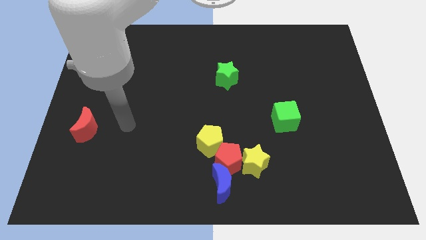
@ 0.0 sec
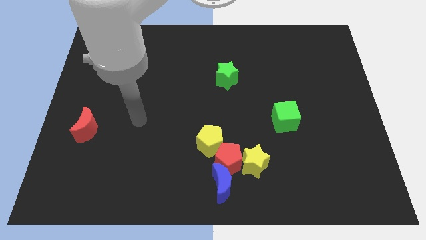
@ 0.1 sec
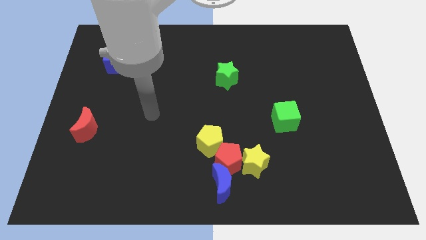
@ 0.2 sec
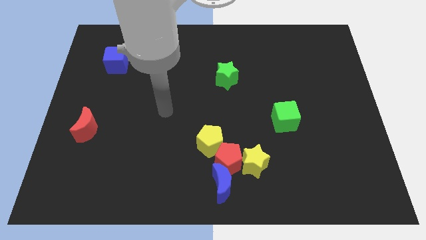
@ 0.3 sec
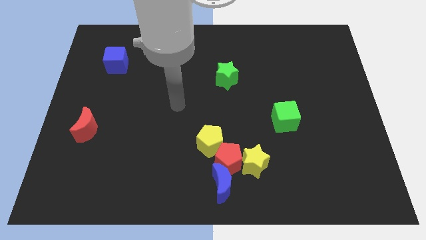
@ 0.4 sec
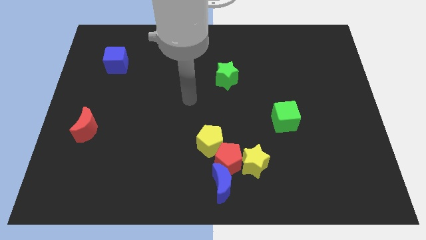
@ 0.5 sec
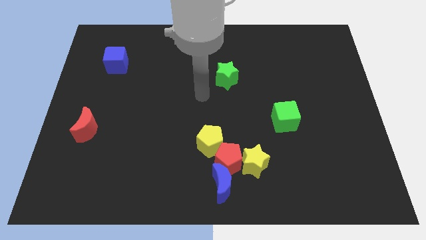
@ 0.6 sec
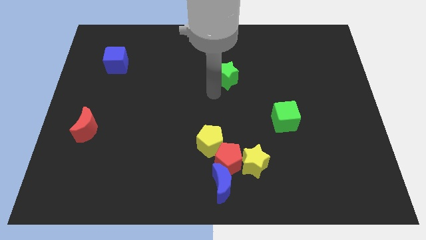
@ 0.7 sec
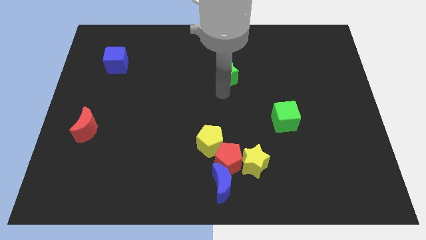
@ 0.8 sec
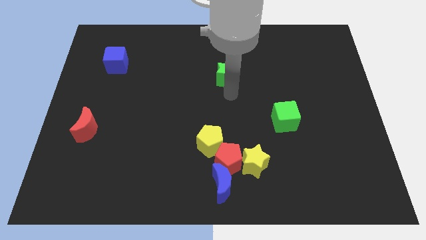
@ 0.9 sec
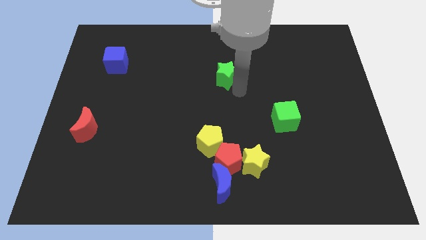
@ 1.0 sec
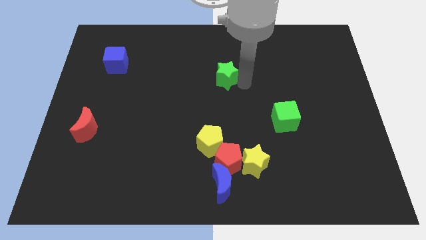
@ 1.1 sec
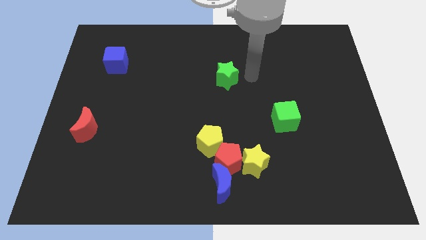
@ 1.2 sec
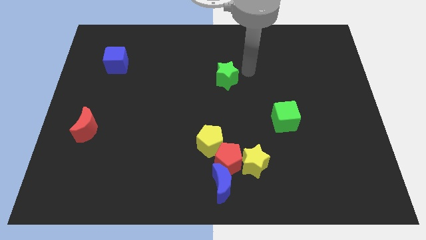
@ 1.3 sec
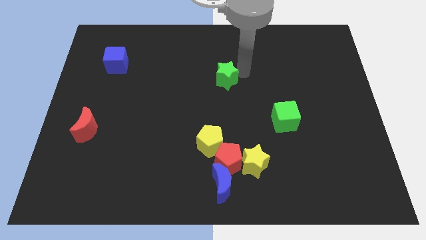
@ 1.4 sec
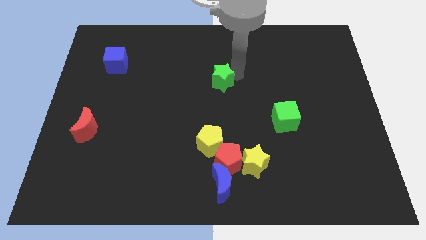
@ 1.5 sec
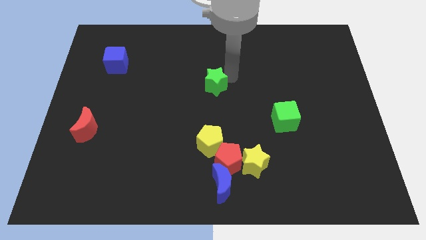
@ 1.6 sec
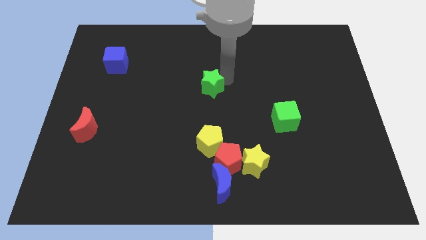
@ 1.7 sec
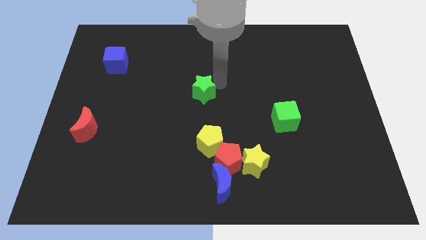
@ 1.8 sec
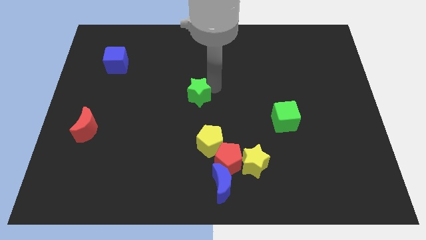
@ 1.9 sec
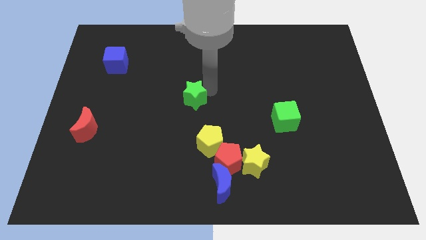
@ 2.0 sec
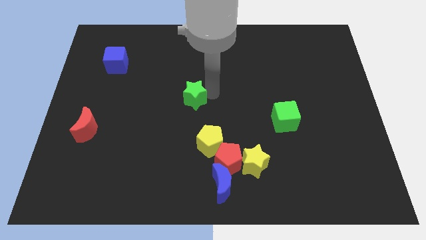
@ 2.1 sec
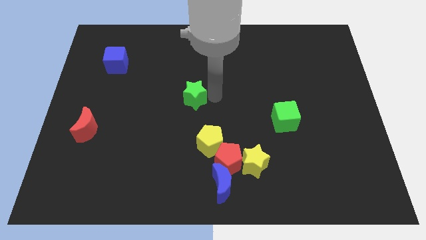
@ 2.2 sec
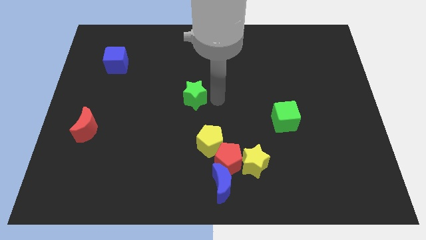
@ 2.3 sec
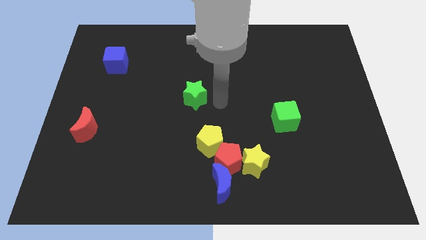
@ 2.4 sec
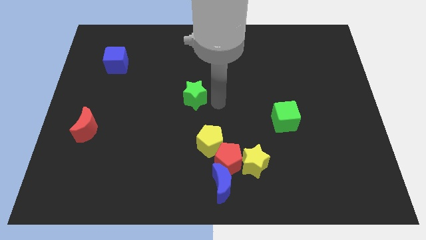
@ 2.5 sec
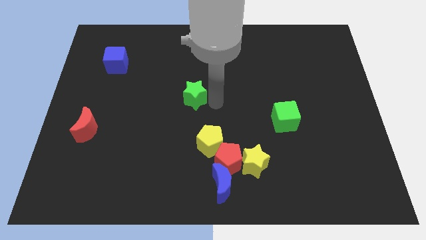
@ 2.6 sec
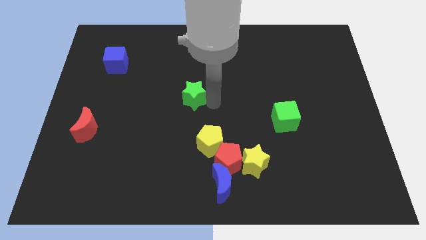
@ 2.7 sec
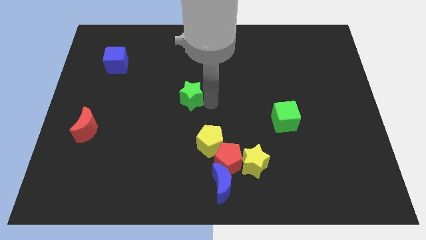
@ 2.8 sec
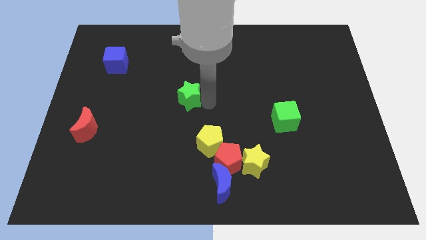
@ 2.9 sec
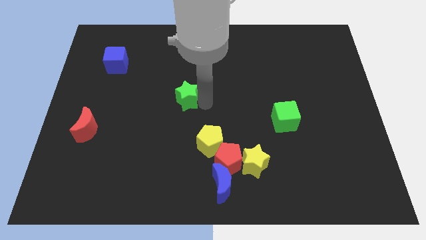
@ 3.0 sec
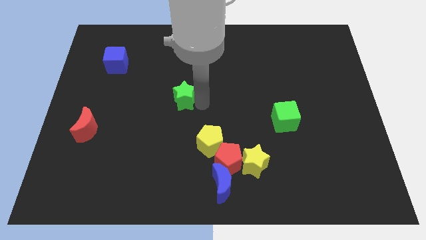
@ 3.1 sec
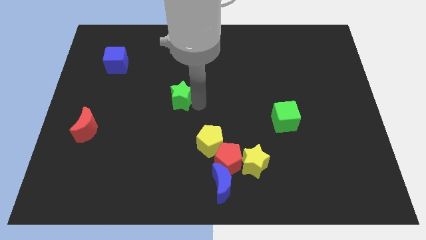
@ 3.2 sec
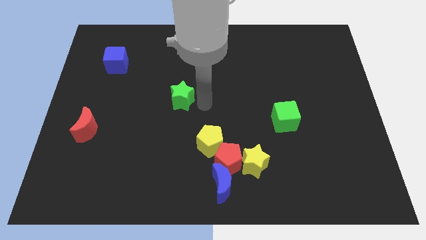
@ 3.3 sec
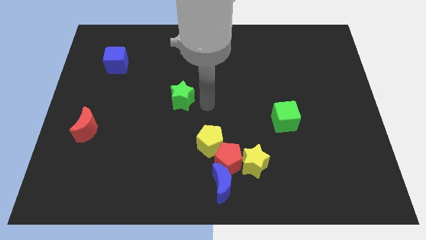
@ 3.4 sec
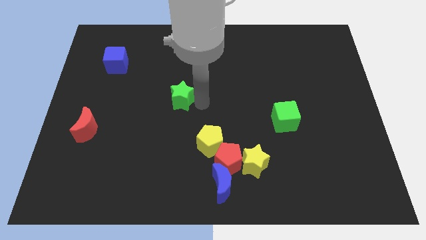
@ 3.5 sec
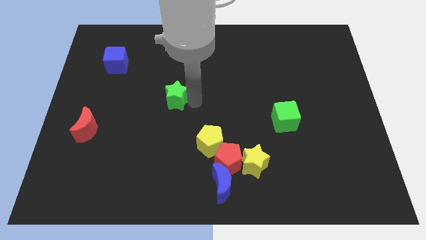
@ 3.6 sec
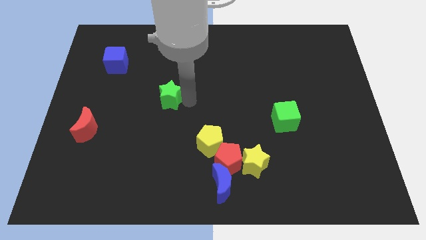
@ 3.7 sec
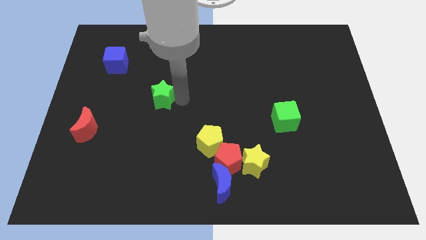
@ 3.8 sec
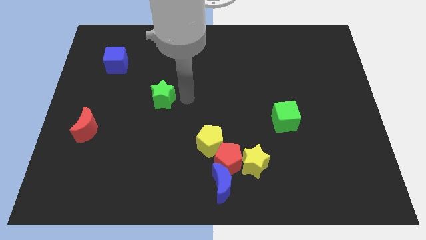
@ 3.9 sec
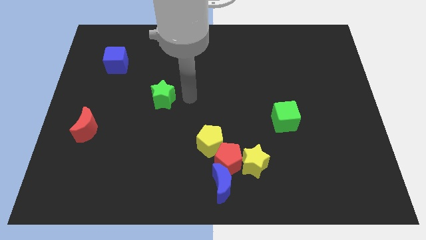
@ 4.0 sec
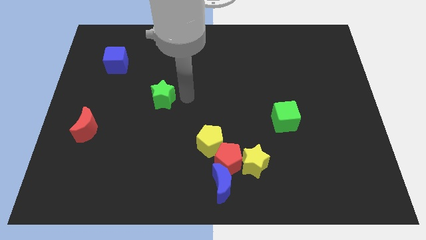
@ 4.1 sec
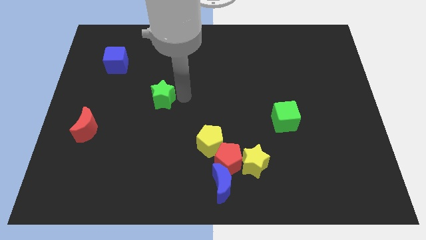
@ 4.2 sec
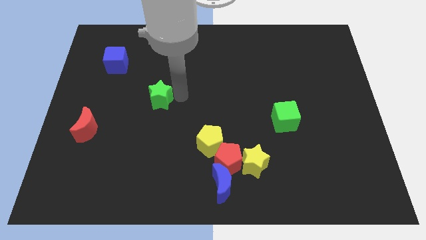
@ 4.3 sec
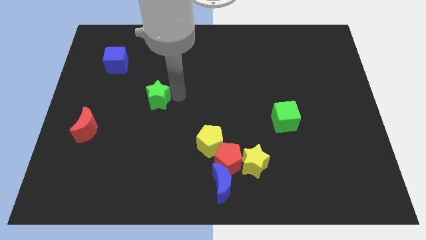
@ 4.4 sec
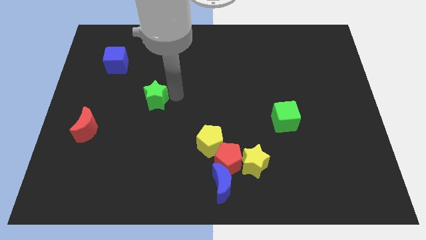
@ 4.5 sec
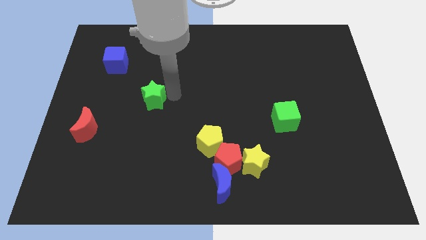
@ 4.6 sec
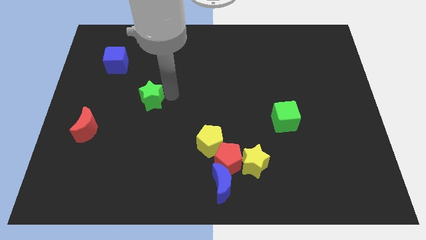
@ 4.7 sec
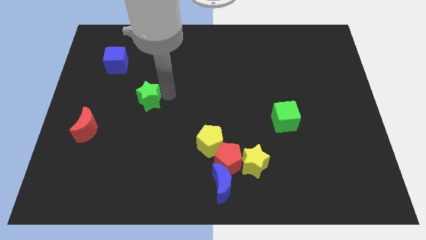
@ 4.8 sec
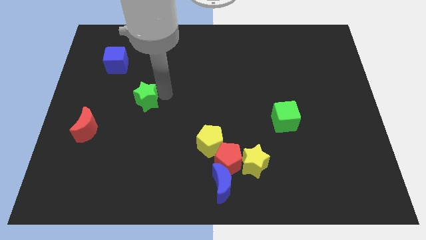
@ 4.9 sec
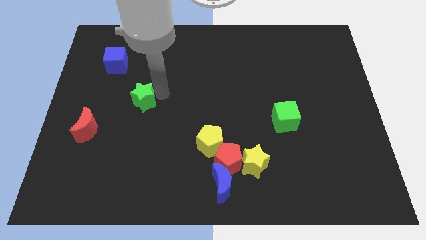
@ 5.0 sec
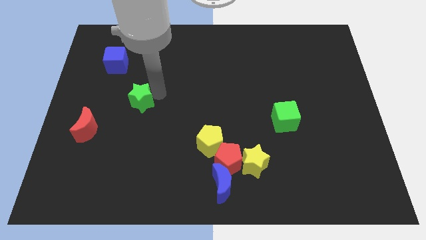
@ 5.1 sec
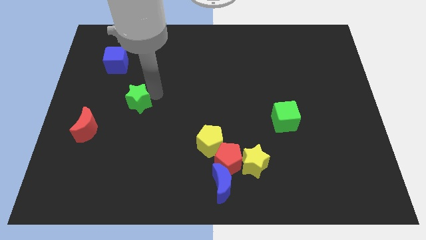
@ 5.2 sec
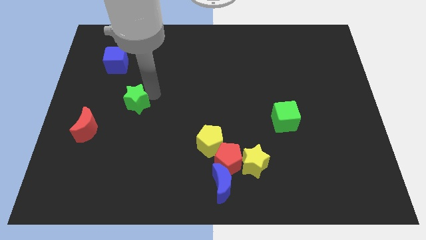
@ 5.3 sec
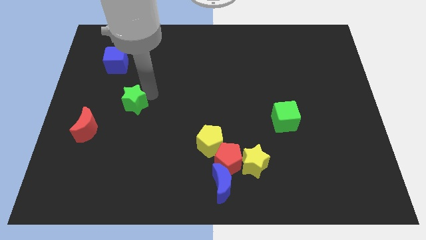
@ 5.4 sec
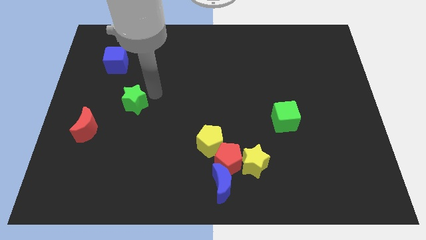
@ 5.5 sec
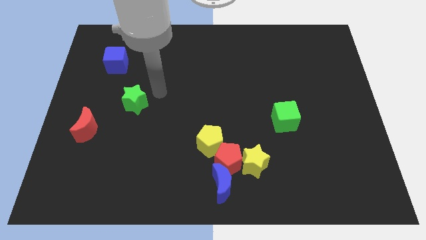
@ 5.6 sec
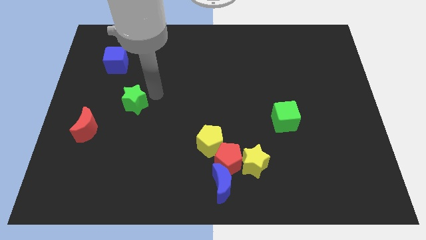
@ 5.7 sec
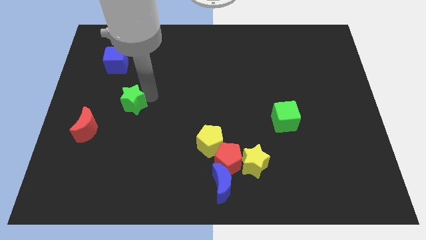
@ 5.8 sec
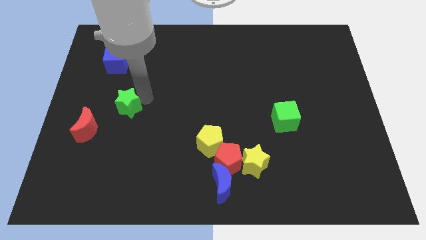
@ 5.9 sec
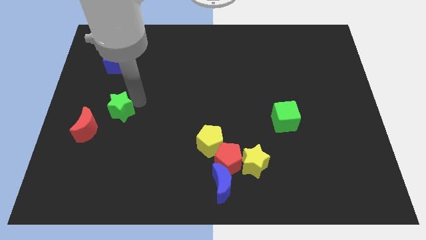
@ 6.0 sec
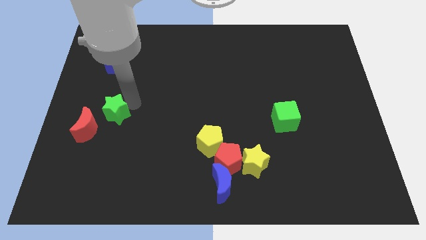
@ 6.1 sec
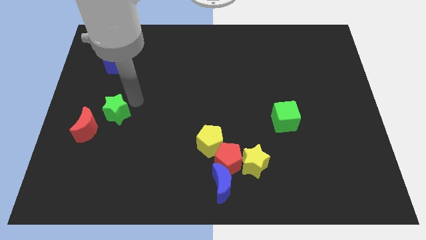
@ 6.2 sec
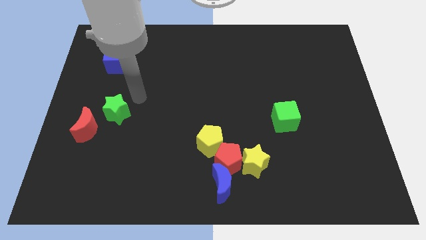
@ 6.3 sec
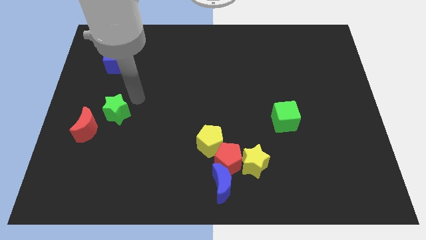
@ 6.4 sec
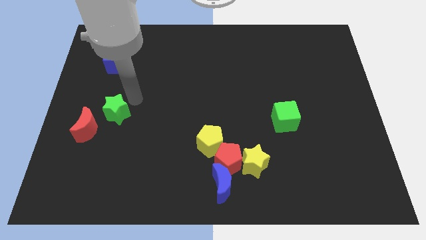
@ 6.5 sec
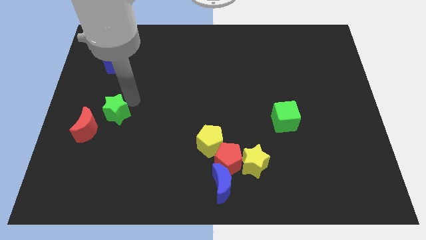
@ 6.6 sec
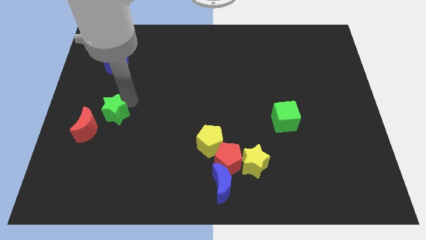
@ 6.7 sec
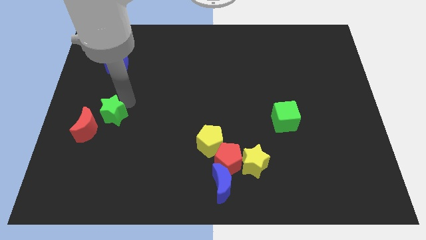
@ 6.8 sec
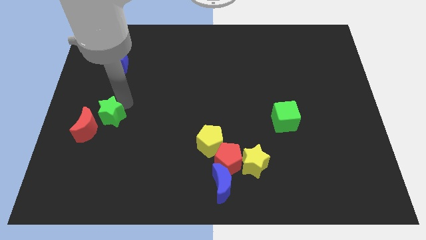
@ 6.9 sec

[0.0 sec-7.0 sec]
slide the green star next to the red moon

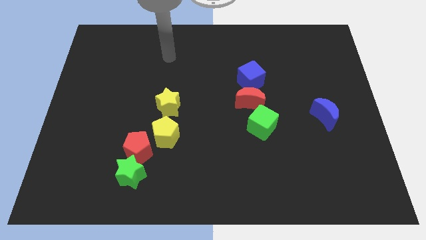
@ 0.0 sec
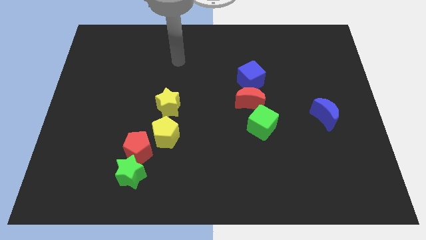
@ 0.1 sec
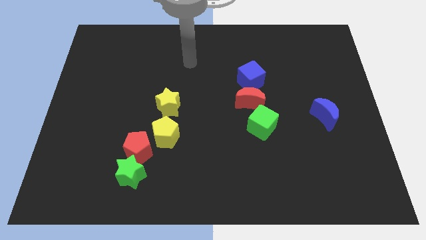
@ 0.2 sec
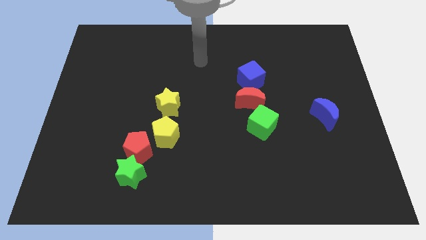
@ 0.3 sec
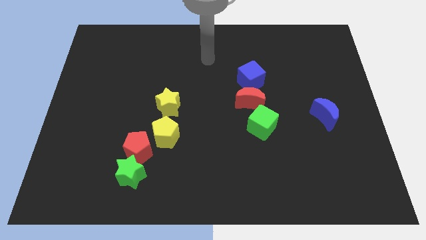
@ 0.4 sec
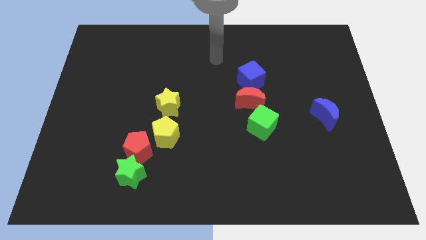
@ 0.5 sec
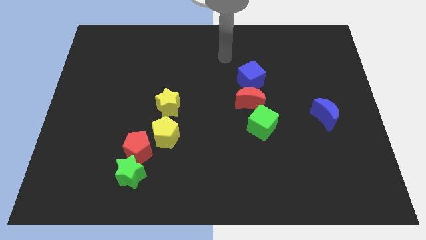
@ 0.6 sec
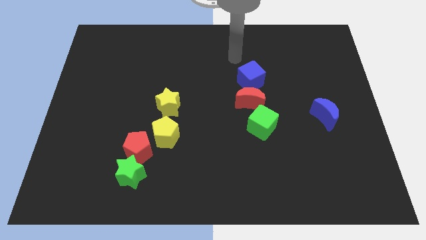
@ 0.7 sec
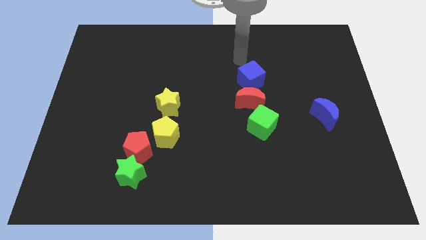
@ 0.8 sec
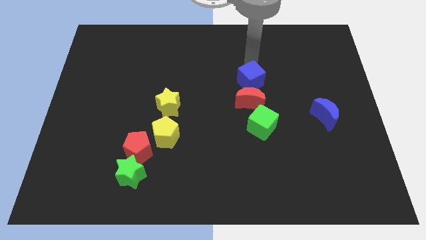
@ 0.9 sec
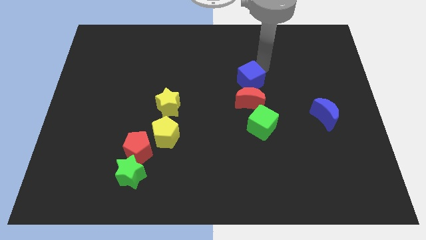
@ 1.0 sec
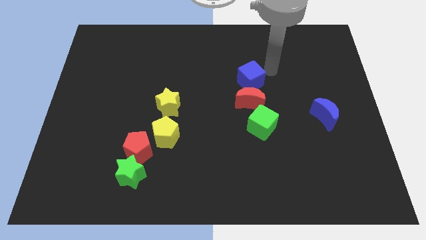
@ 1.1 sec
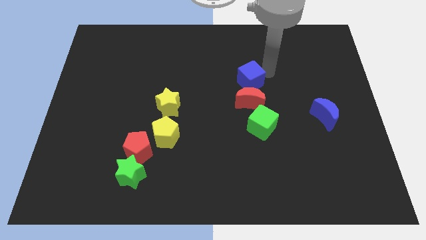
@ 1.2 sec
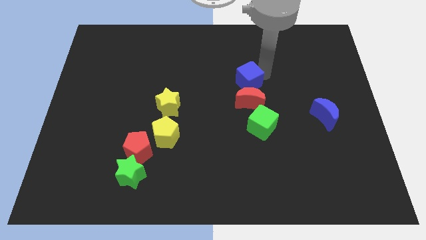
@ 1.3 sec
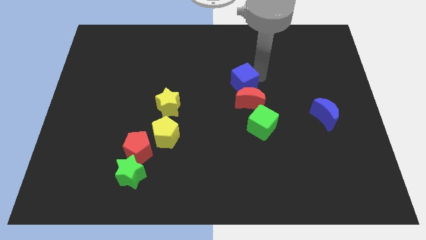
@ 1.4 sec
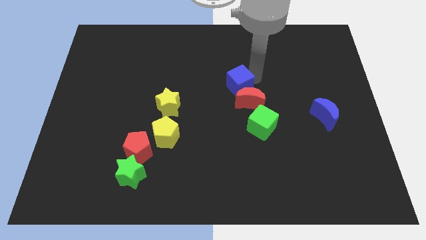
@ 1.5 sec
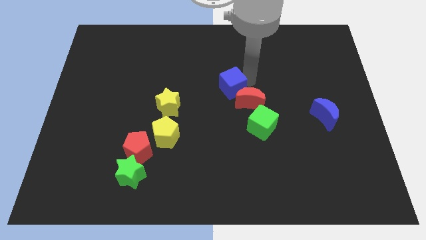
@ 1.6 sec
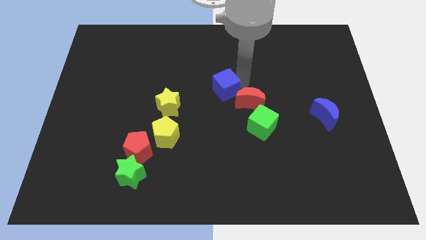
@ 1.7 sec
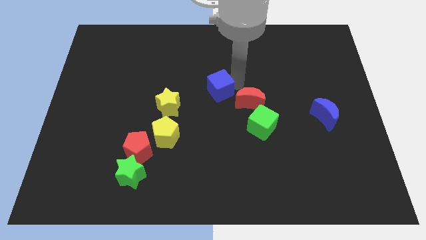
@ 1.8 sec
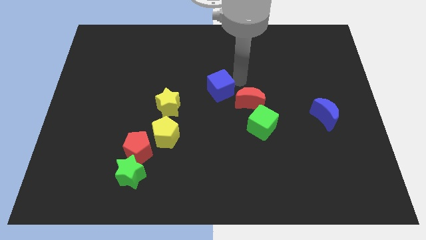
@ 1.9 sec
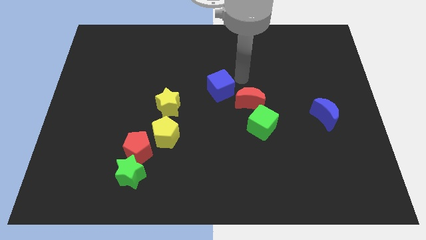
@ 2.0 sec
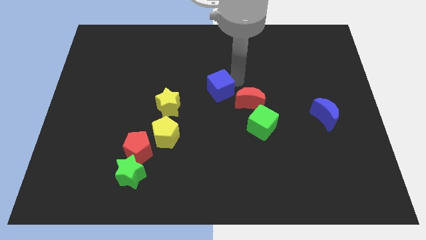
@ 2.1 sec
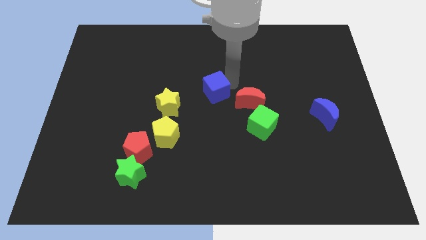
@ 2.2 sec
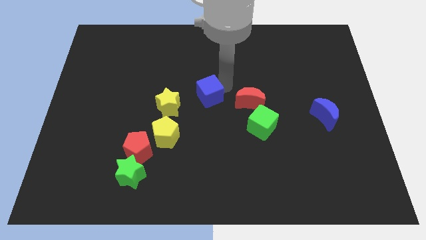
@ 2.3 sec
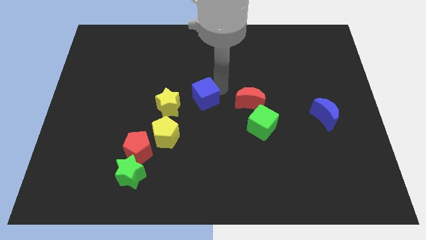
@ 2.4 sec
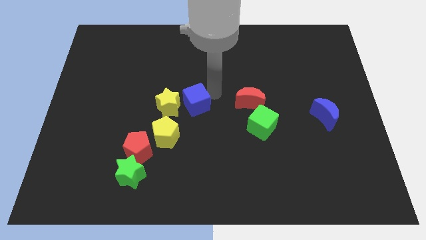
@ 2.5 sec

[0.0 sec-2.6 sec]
put the blue cube close to the yellow star
